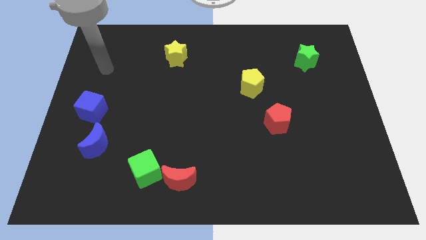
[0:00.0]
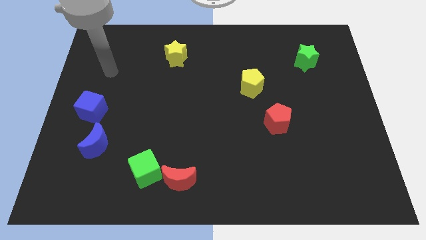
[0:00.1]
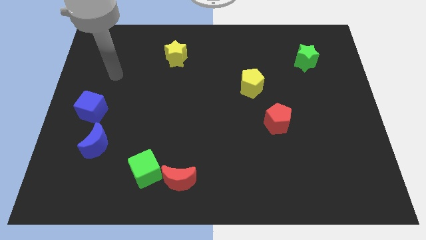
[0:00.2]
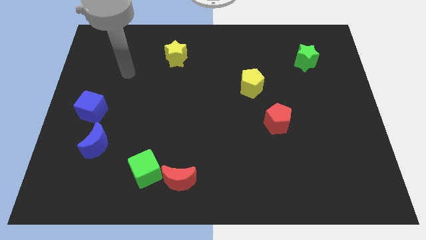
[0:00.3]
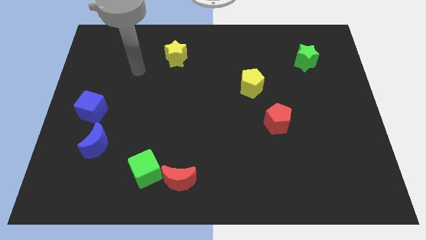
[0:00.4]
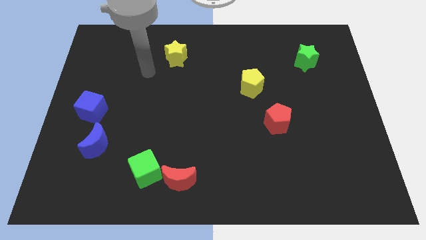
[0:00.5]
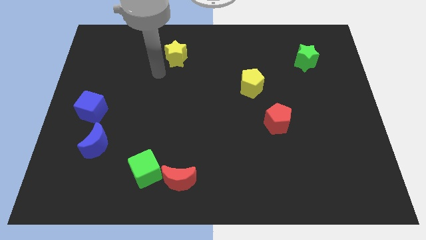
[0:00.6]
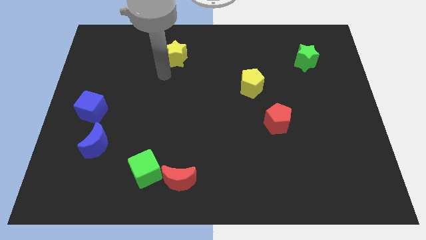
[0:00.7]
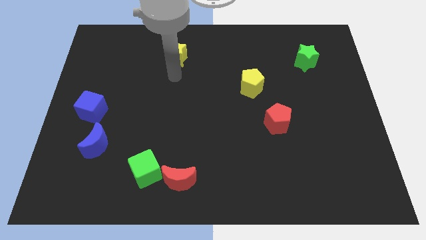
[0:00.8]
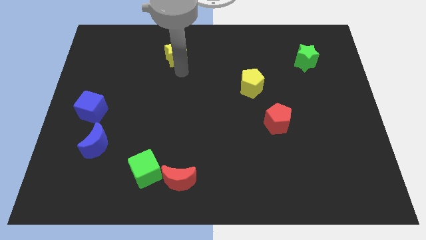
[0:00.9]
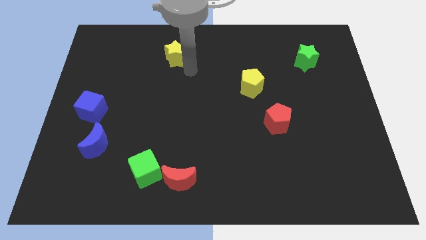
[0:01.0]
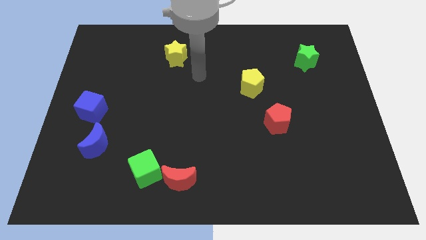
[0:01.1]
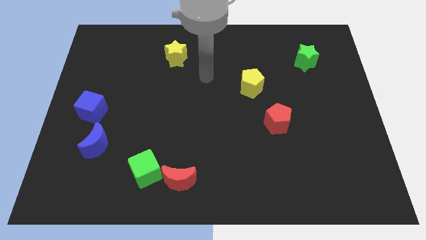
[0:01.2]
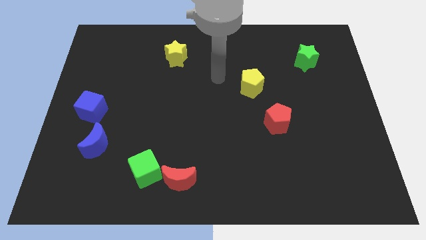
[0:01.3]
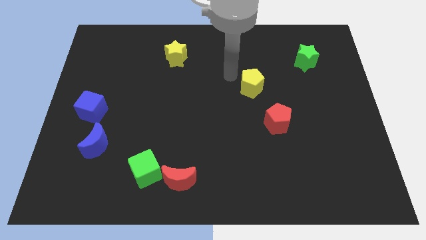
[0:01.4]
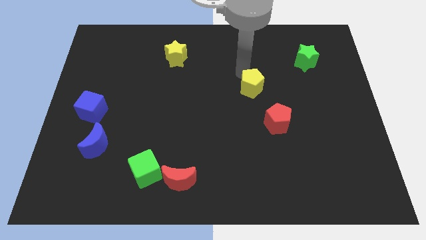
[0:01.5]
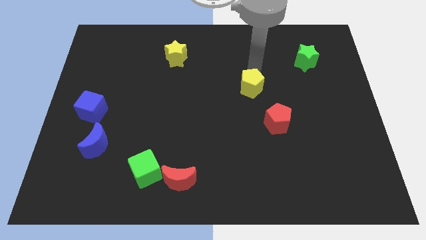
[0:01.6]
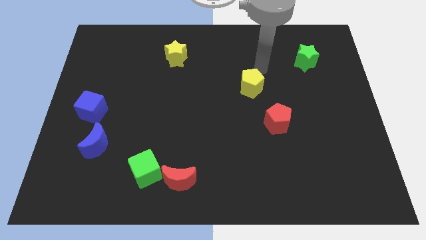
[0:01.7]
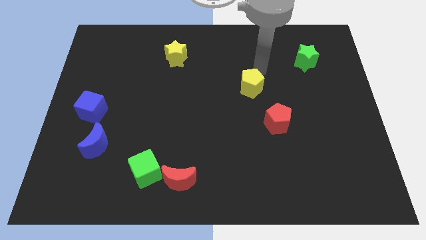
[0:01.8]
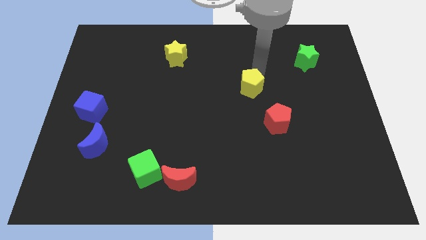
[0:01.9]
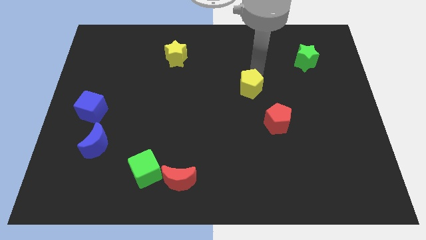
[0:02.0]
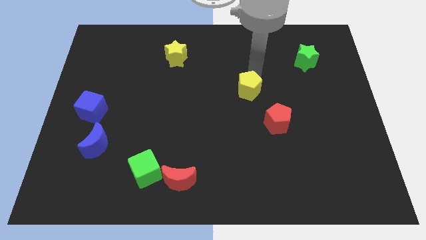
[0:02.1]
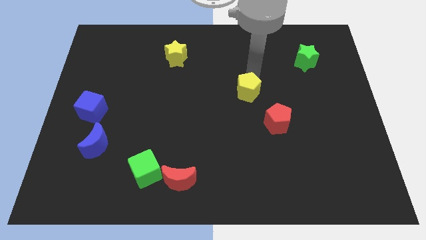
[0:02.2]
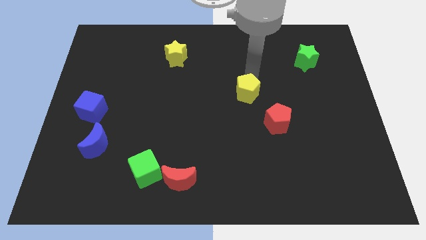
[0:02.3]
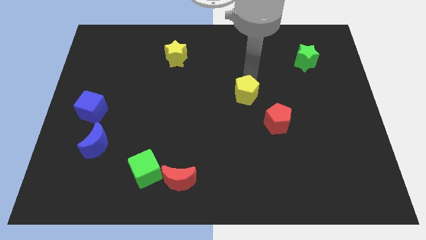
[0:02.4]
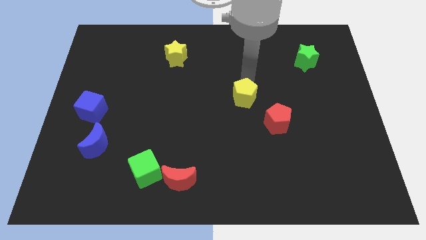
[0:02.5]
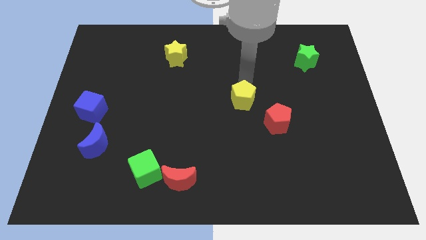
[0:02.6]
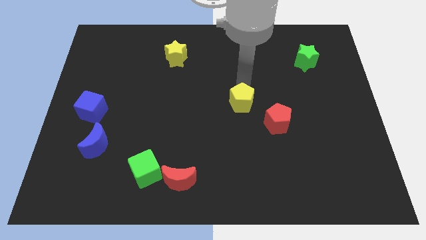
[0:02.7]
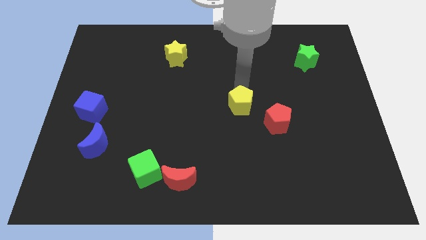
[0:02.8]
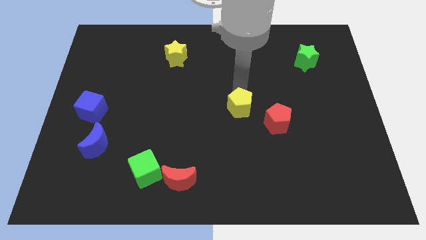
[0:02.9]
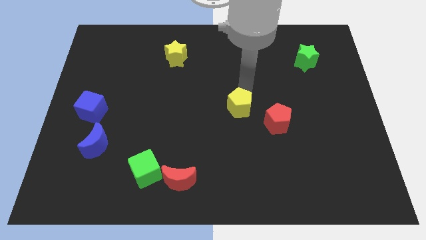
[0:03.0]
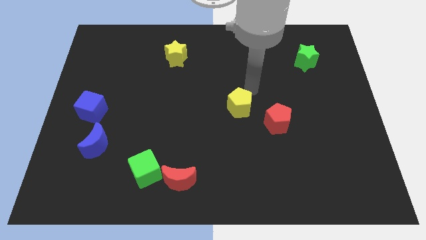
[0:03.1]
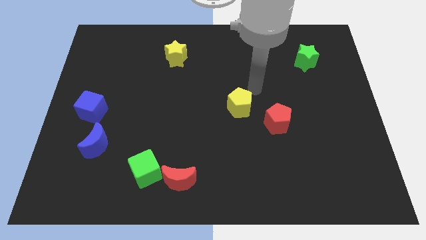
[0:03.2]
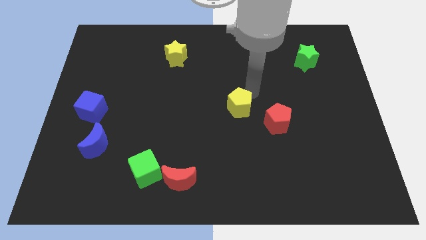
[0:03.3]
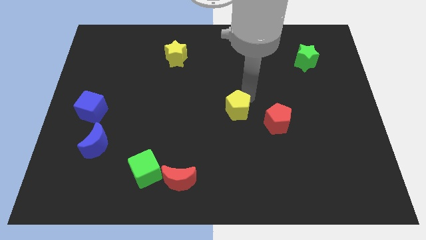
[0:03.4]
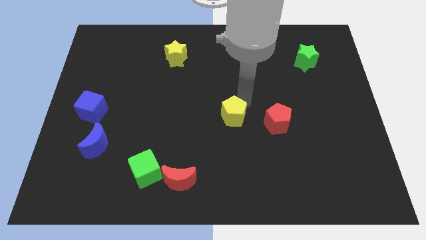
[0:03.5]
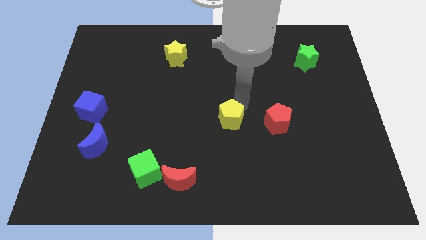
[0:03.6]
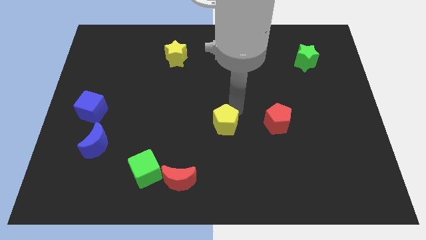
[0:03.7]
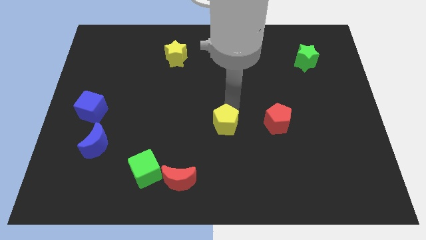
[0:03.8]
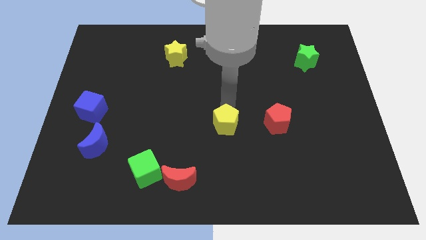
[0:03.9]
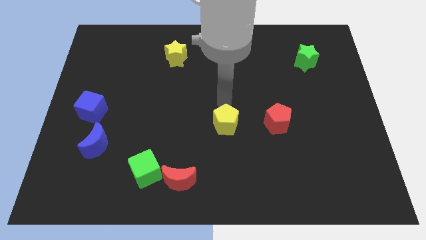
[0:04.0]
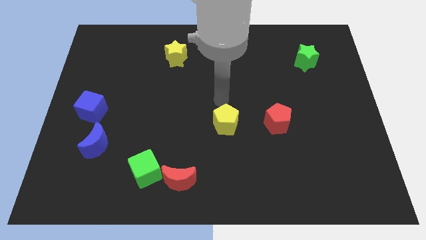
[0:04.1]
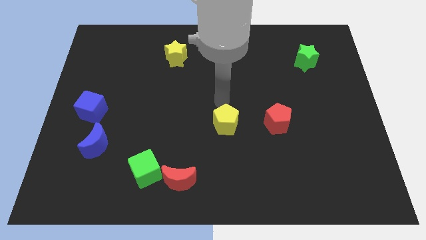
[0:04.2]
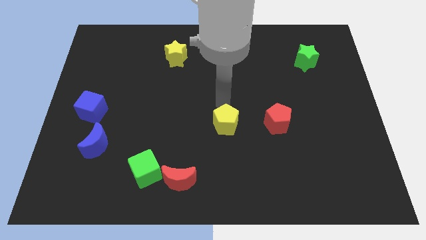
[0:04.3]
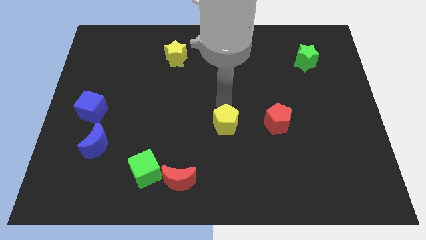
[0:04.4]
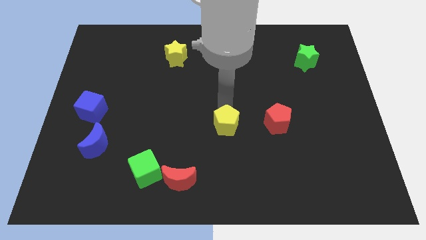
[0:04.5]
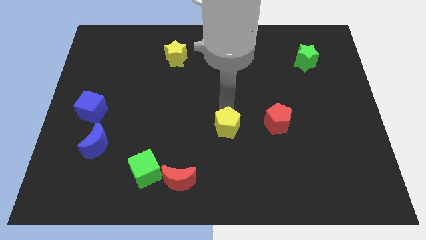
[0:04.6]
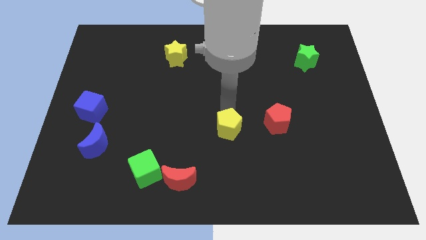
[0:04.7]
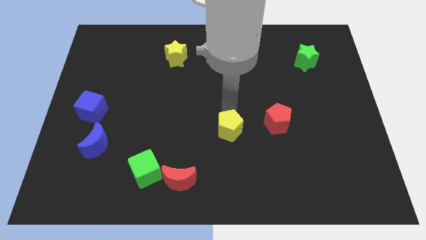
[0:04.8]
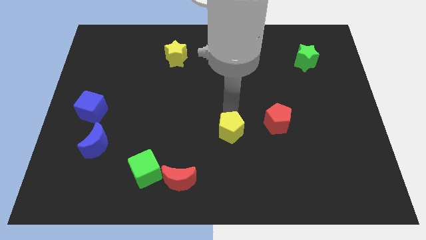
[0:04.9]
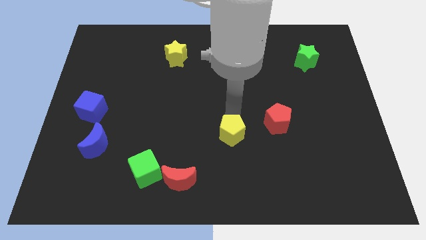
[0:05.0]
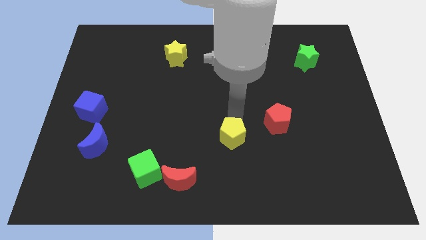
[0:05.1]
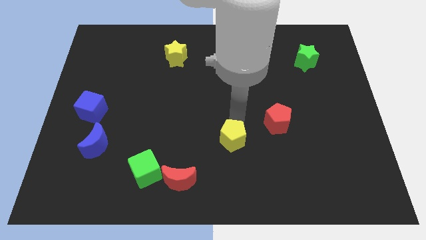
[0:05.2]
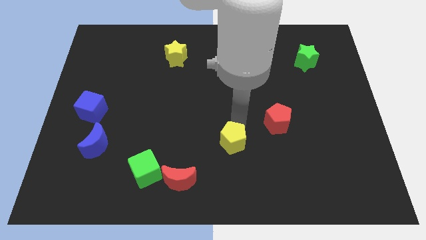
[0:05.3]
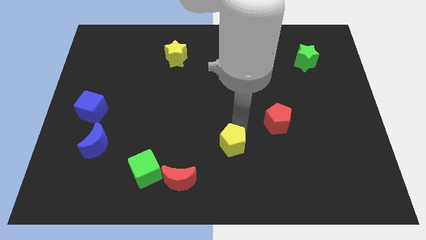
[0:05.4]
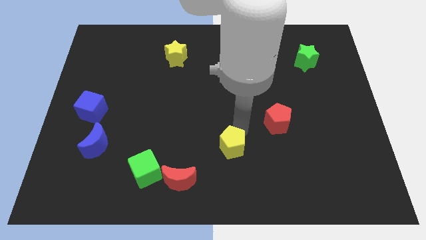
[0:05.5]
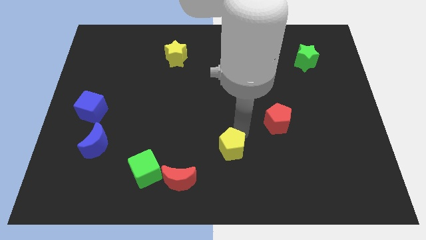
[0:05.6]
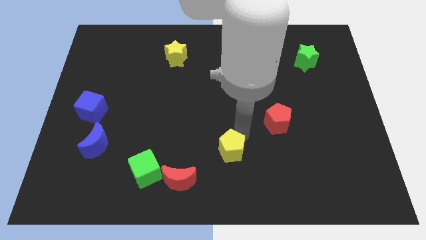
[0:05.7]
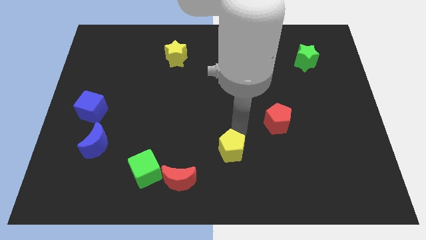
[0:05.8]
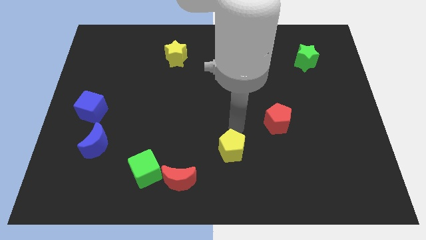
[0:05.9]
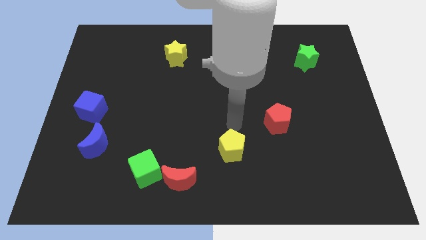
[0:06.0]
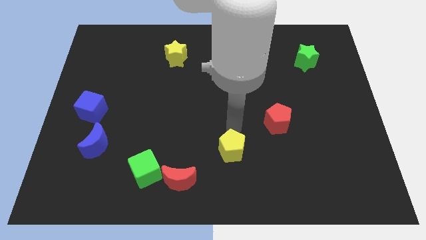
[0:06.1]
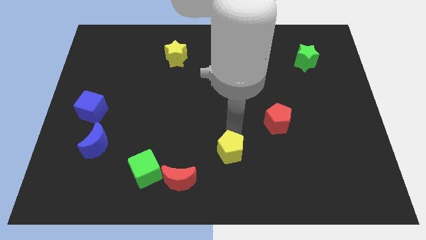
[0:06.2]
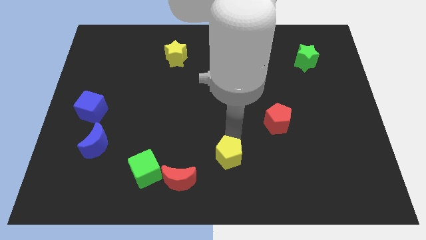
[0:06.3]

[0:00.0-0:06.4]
push the yellow pentagon to the bottom
